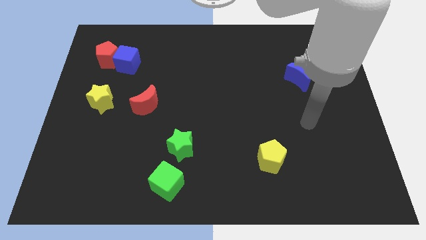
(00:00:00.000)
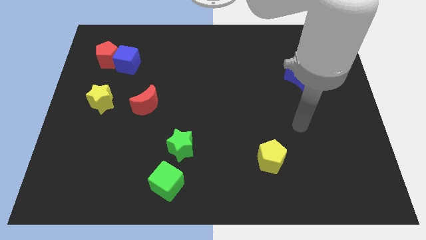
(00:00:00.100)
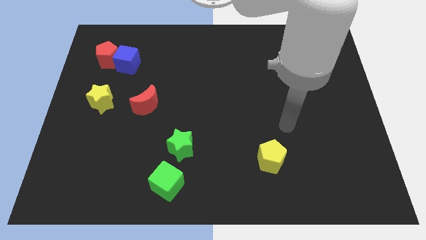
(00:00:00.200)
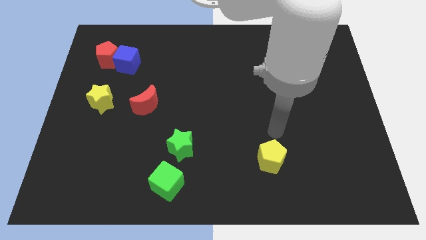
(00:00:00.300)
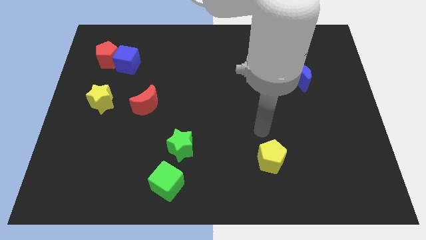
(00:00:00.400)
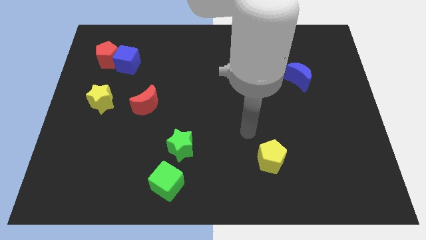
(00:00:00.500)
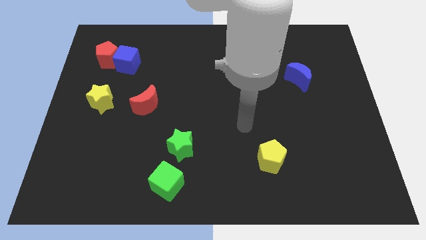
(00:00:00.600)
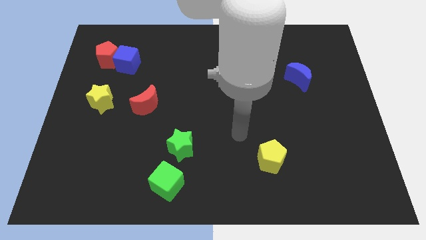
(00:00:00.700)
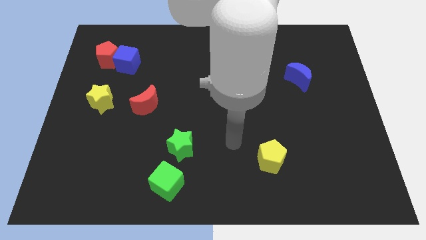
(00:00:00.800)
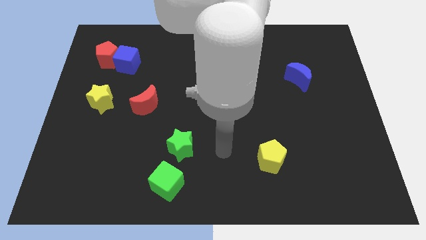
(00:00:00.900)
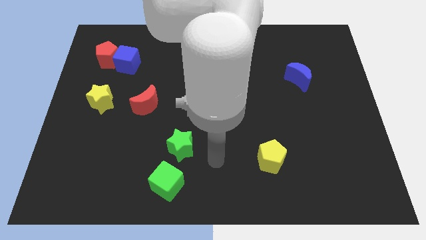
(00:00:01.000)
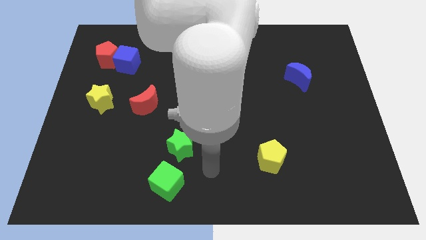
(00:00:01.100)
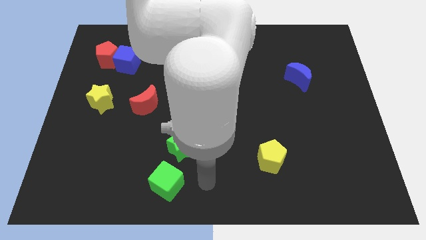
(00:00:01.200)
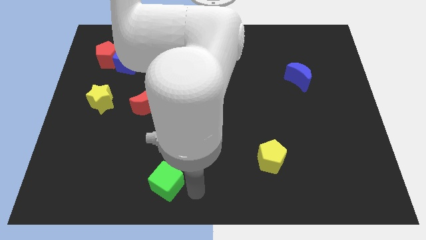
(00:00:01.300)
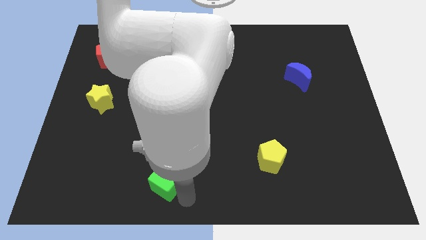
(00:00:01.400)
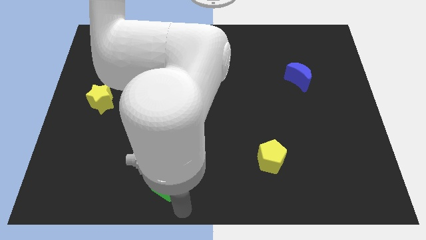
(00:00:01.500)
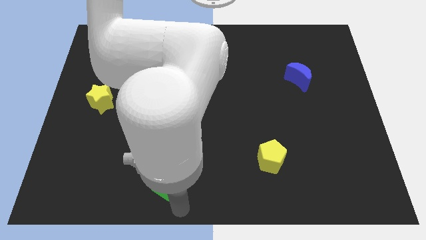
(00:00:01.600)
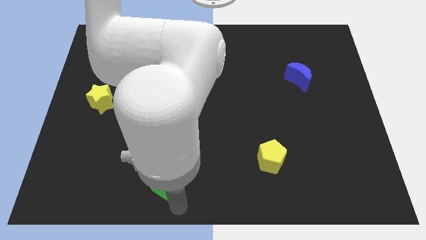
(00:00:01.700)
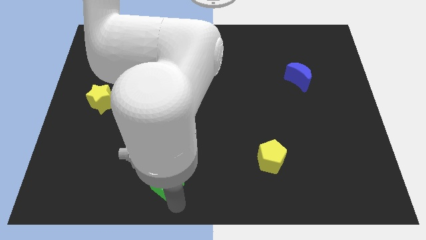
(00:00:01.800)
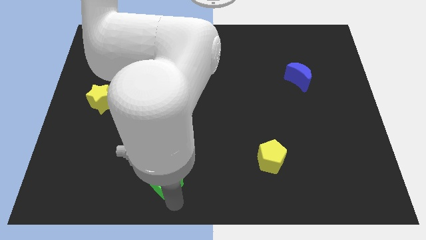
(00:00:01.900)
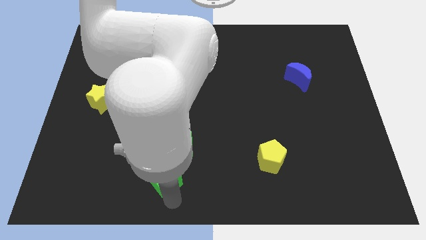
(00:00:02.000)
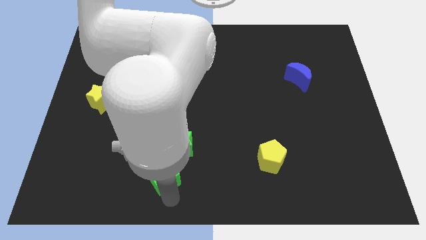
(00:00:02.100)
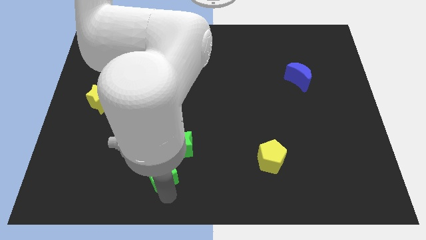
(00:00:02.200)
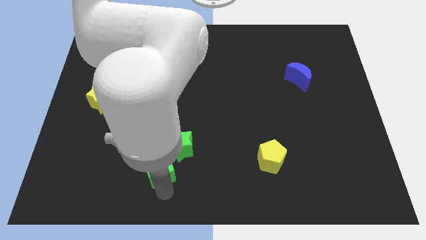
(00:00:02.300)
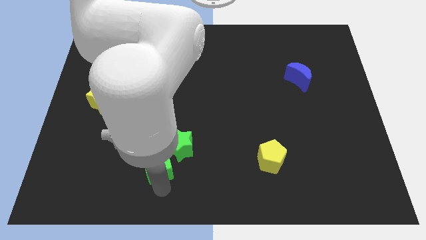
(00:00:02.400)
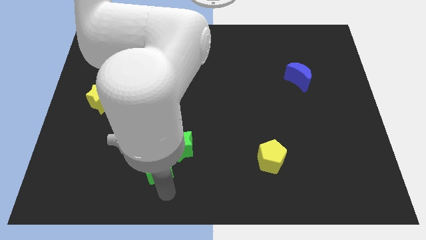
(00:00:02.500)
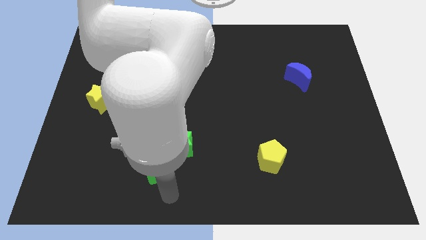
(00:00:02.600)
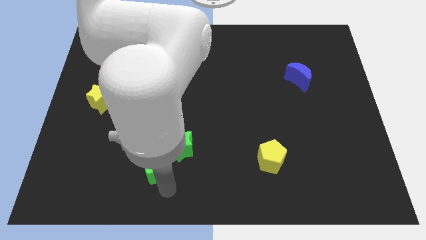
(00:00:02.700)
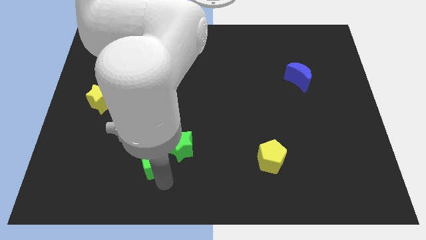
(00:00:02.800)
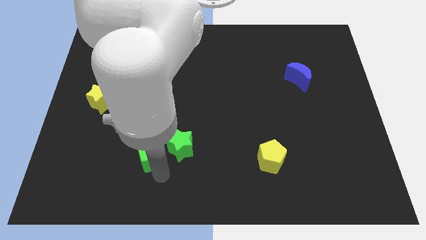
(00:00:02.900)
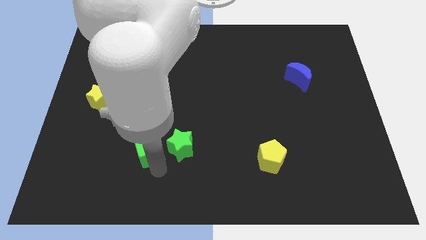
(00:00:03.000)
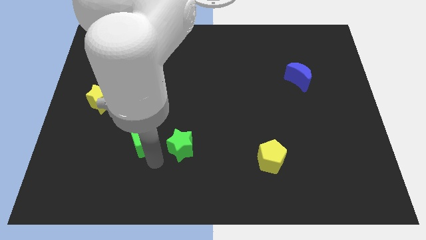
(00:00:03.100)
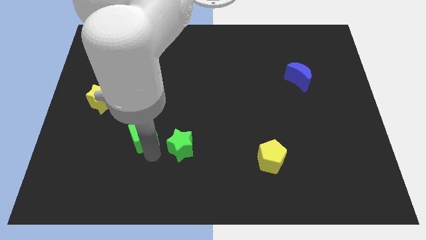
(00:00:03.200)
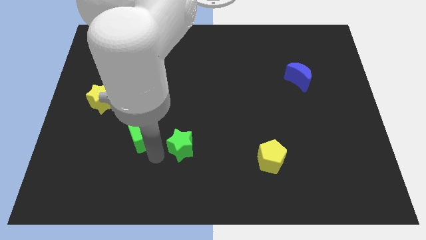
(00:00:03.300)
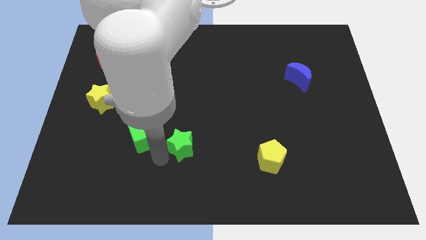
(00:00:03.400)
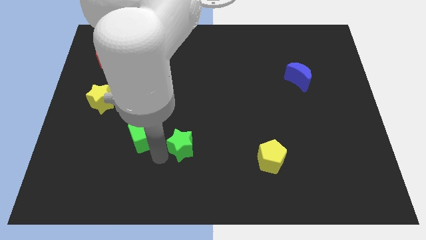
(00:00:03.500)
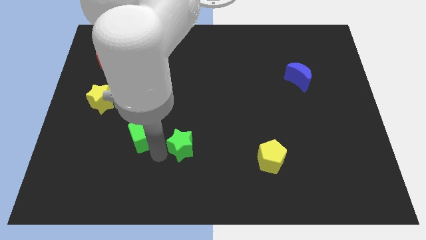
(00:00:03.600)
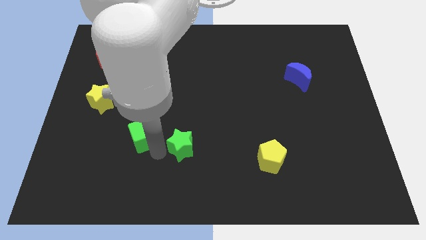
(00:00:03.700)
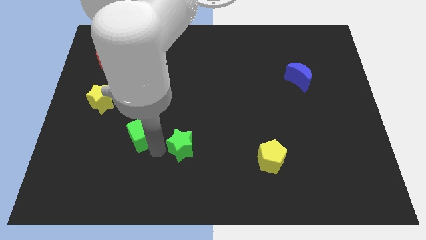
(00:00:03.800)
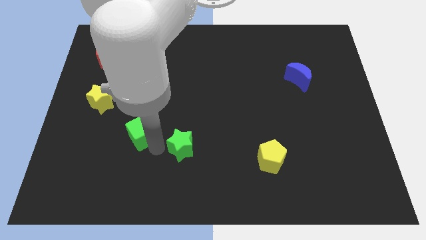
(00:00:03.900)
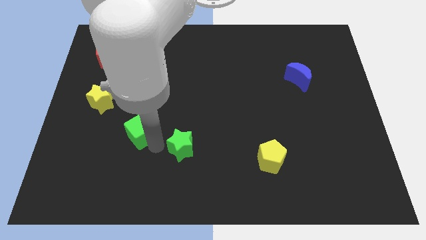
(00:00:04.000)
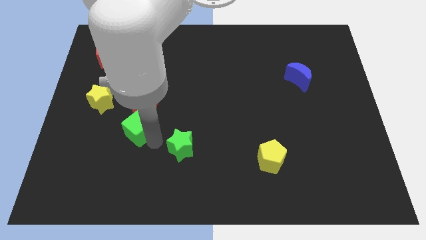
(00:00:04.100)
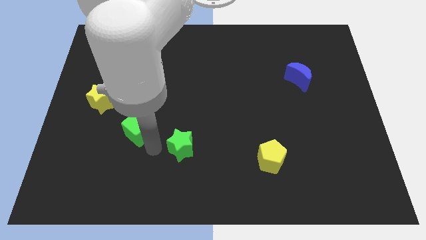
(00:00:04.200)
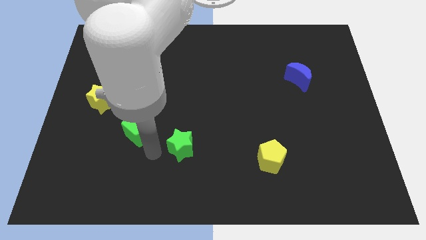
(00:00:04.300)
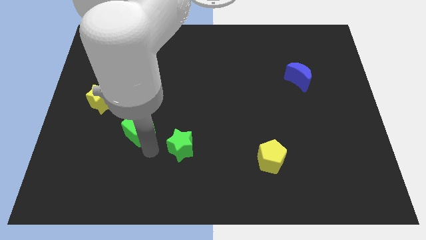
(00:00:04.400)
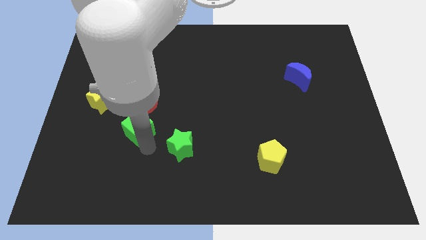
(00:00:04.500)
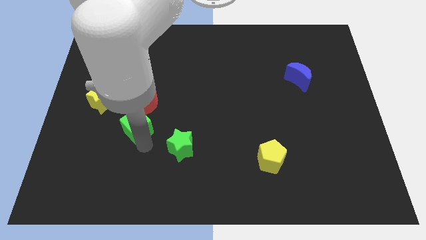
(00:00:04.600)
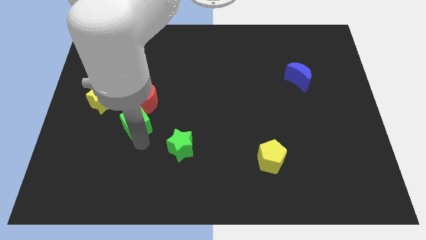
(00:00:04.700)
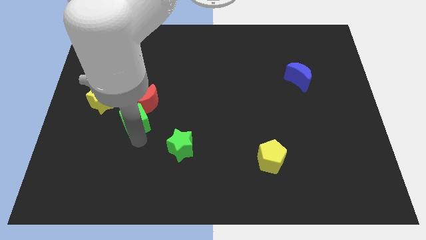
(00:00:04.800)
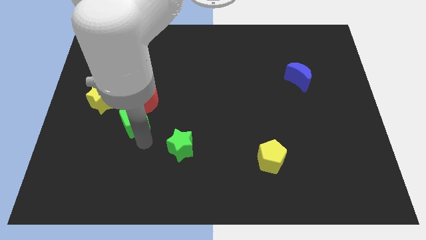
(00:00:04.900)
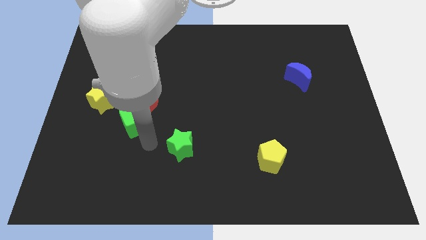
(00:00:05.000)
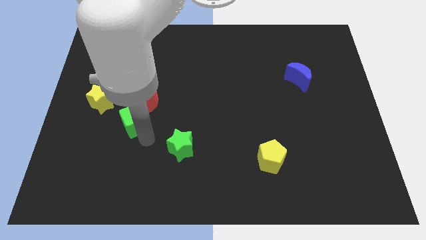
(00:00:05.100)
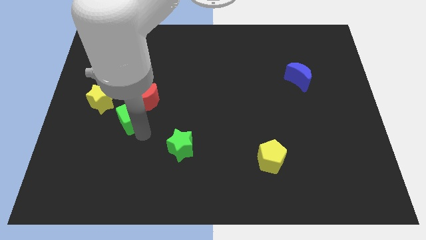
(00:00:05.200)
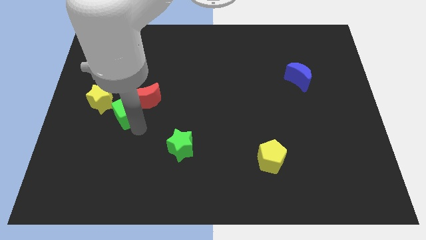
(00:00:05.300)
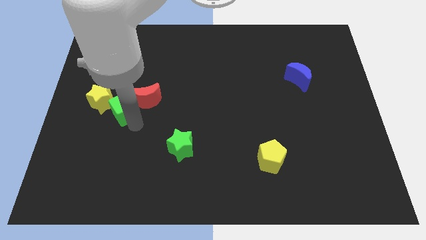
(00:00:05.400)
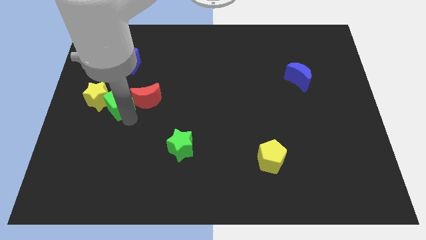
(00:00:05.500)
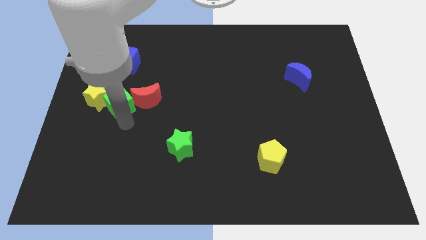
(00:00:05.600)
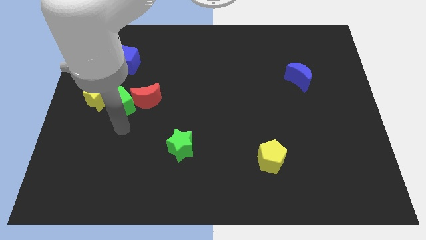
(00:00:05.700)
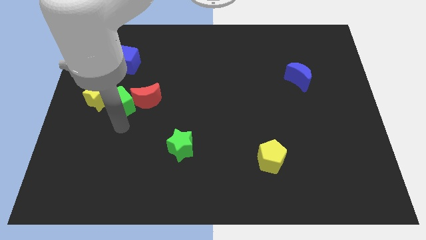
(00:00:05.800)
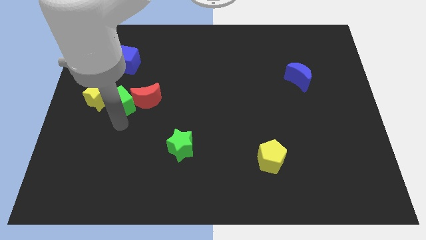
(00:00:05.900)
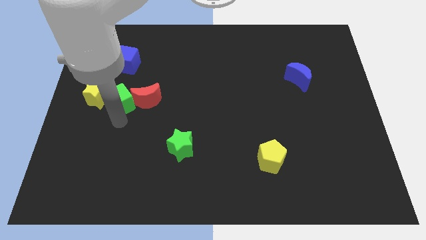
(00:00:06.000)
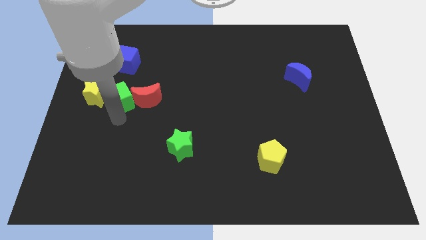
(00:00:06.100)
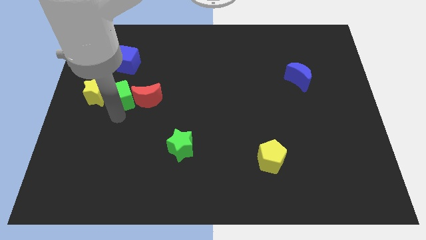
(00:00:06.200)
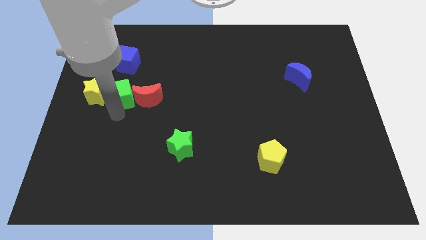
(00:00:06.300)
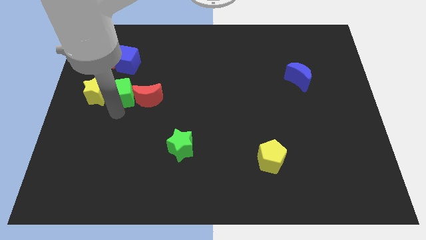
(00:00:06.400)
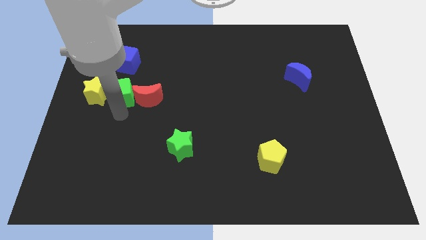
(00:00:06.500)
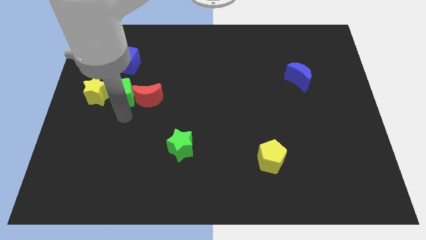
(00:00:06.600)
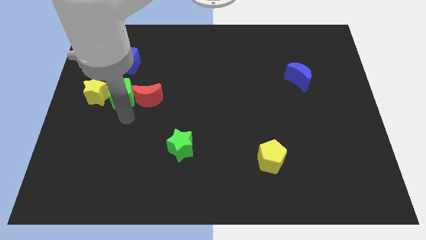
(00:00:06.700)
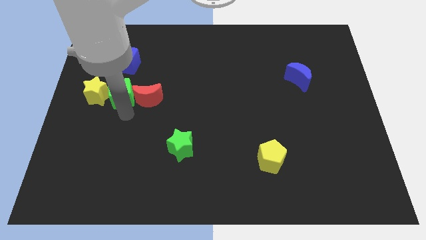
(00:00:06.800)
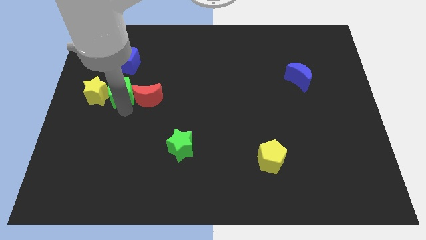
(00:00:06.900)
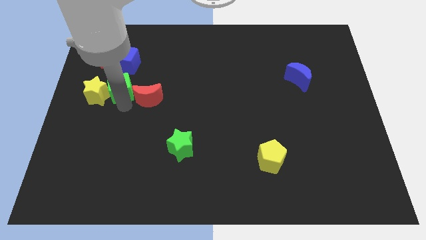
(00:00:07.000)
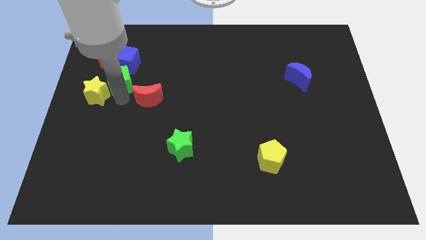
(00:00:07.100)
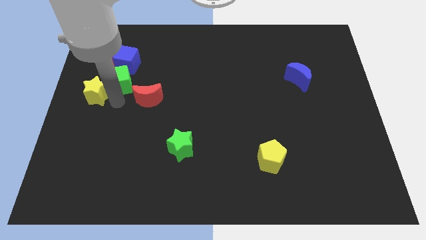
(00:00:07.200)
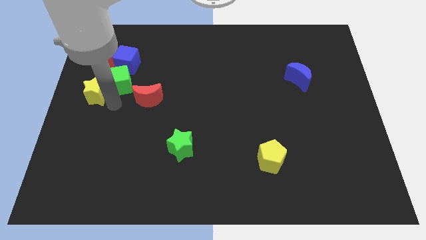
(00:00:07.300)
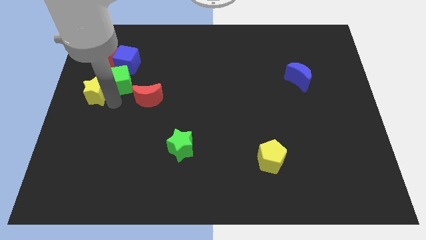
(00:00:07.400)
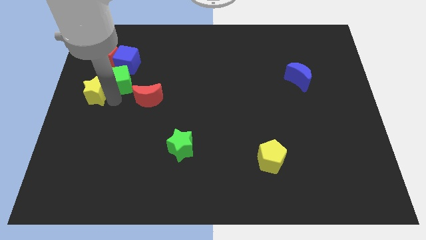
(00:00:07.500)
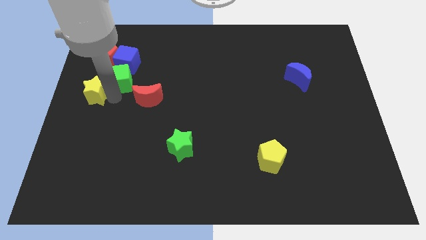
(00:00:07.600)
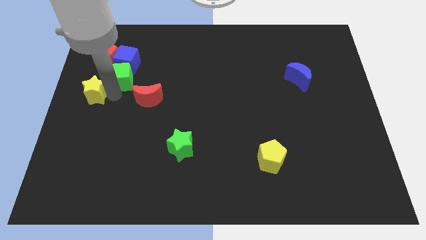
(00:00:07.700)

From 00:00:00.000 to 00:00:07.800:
move the green cube towards the blue cube
